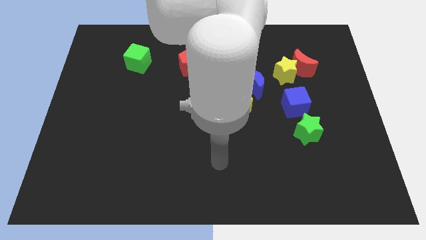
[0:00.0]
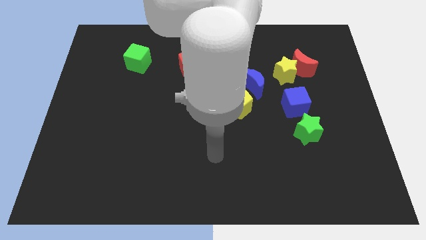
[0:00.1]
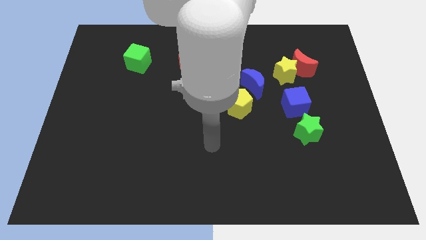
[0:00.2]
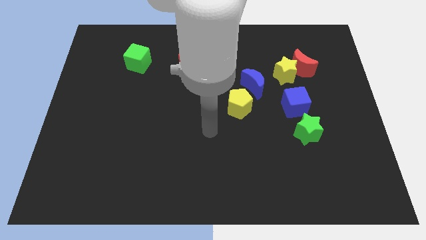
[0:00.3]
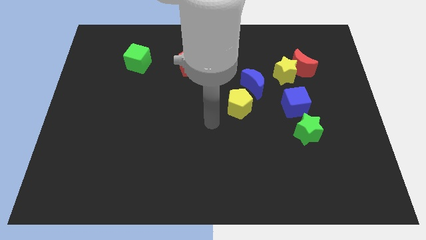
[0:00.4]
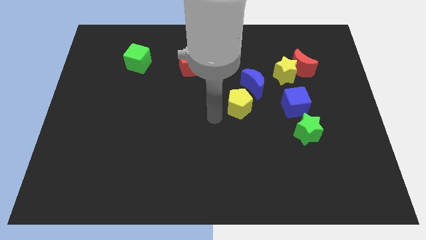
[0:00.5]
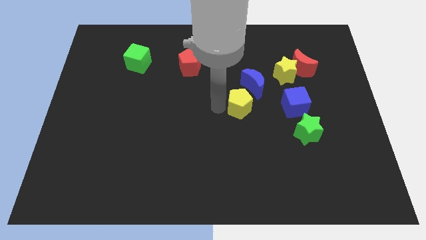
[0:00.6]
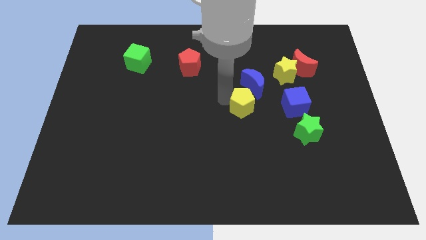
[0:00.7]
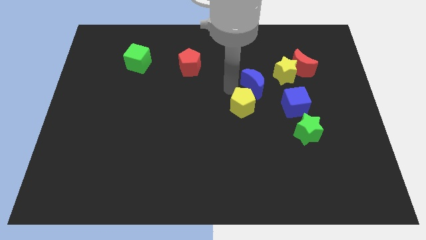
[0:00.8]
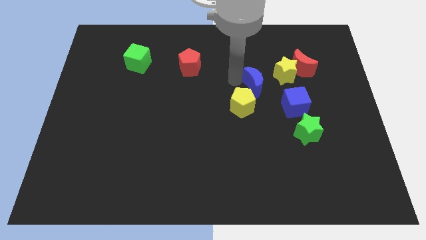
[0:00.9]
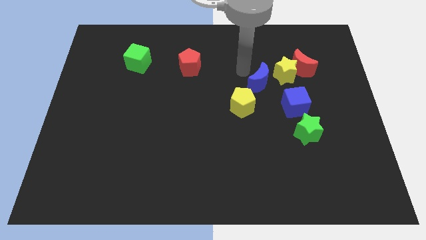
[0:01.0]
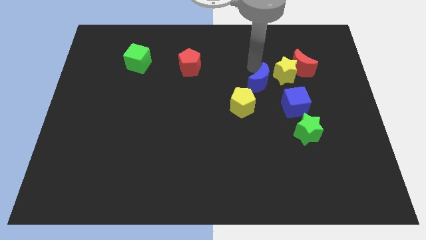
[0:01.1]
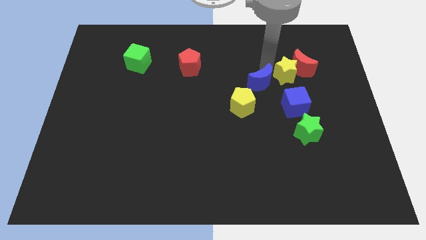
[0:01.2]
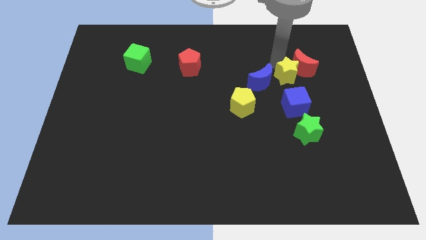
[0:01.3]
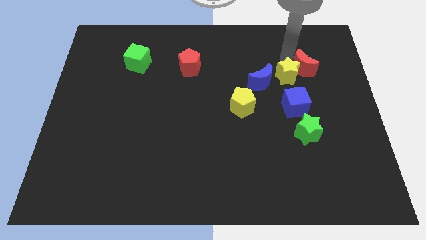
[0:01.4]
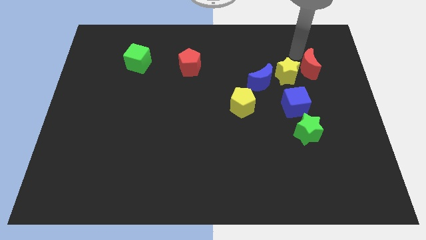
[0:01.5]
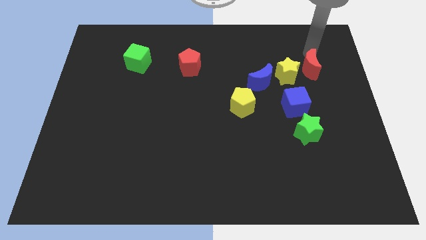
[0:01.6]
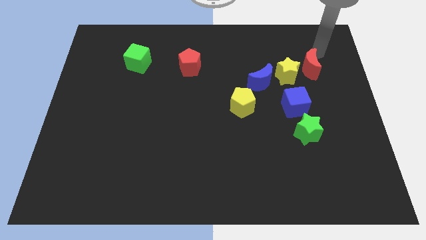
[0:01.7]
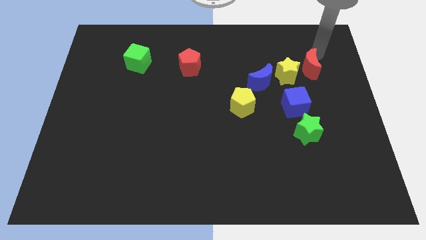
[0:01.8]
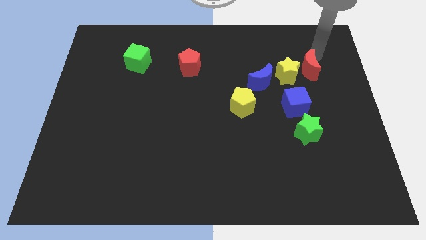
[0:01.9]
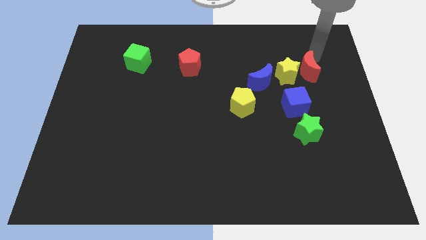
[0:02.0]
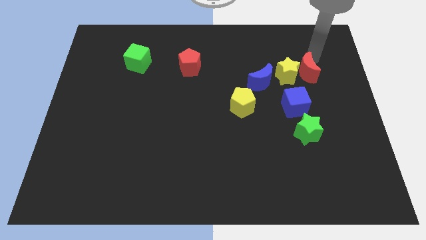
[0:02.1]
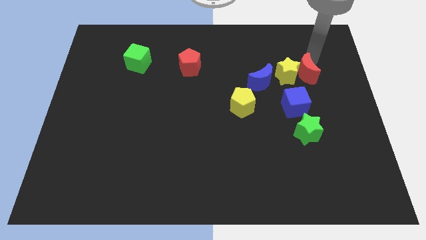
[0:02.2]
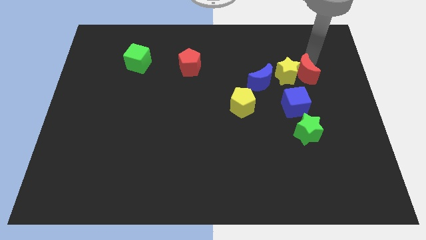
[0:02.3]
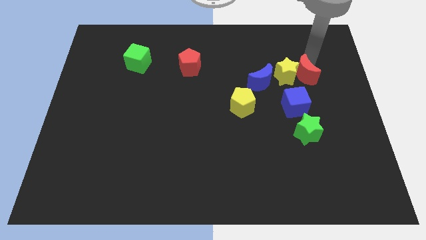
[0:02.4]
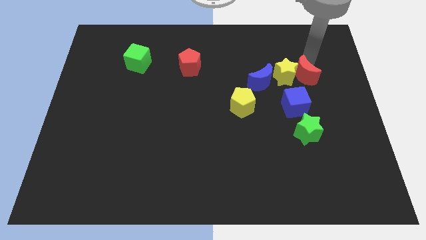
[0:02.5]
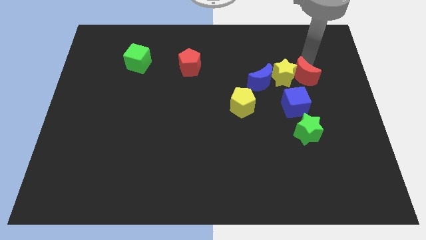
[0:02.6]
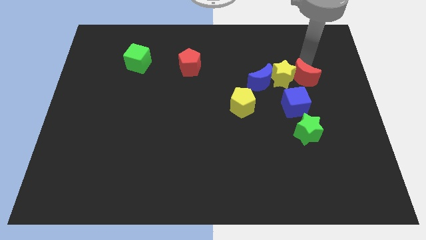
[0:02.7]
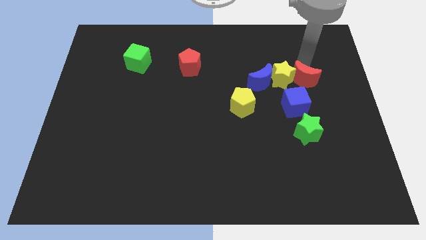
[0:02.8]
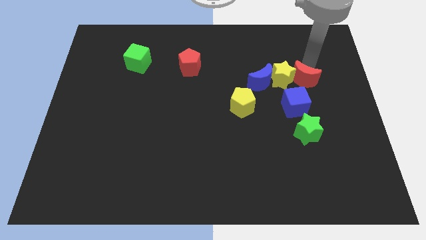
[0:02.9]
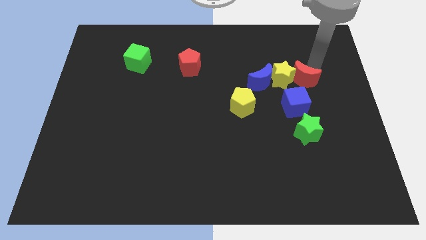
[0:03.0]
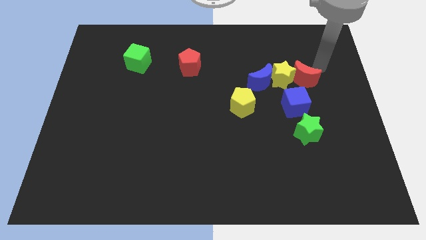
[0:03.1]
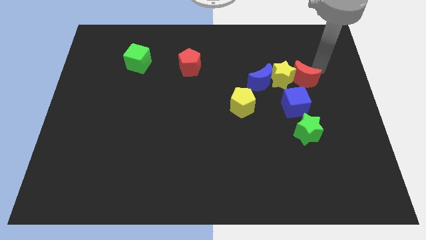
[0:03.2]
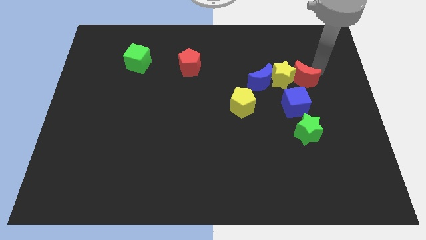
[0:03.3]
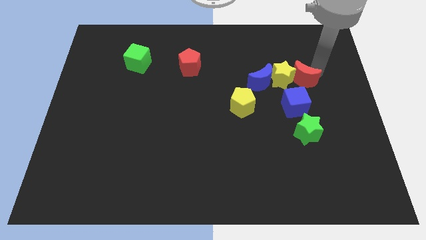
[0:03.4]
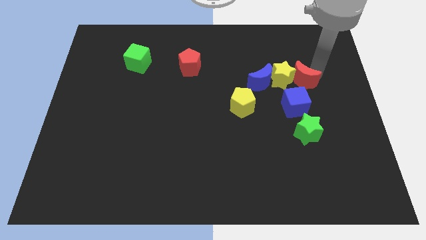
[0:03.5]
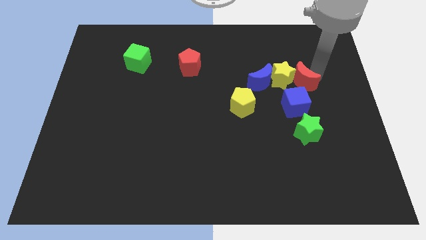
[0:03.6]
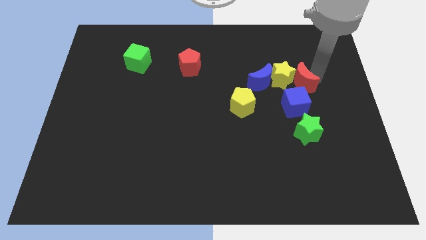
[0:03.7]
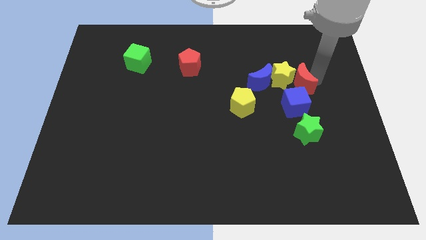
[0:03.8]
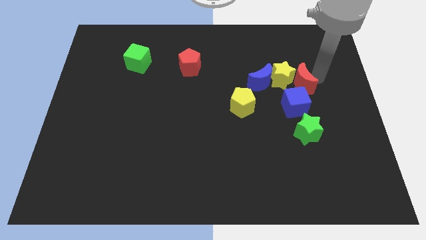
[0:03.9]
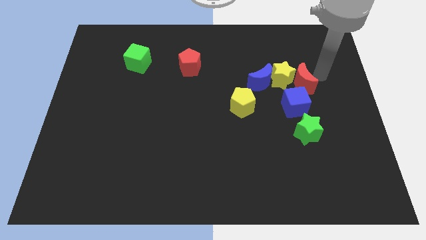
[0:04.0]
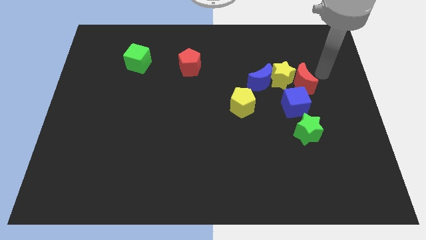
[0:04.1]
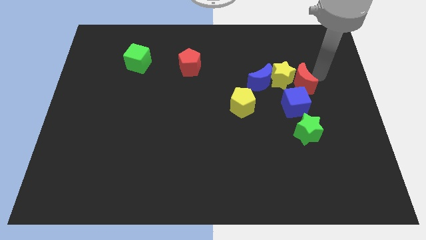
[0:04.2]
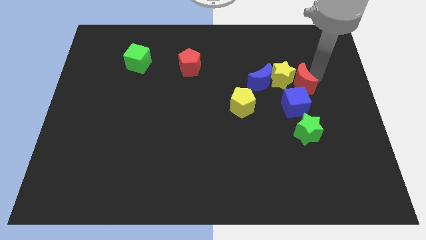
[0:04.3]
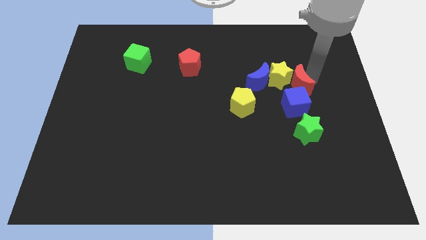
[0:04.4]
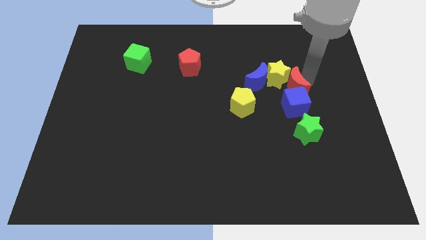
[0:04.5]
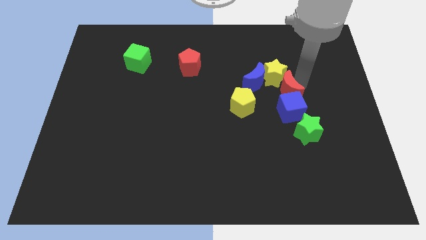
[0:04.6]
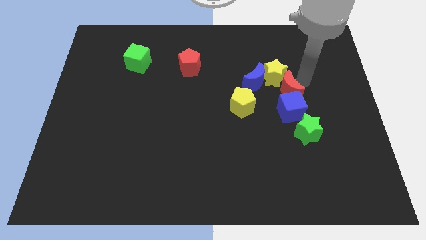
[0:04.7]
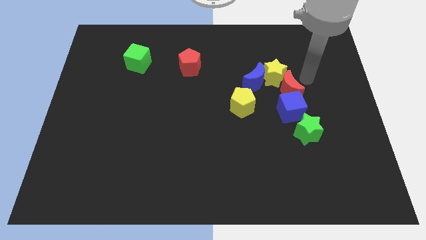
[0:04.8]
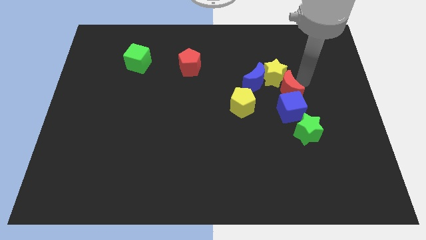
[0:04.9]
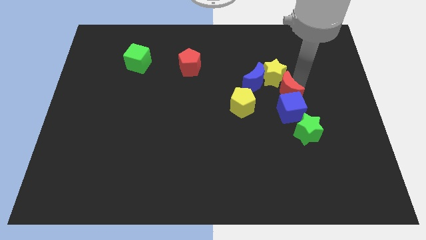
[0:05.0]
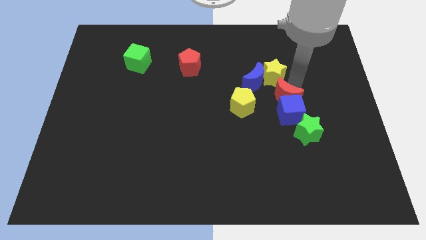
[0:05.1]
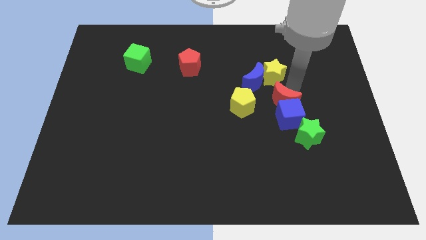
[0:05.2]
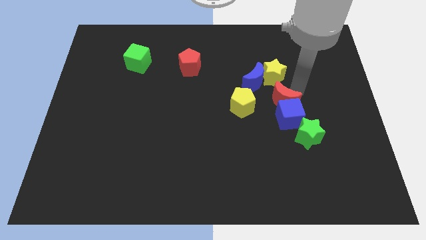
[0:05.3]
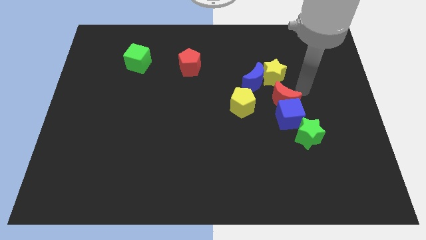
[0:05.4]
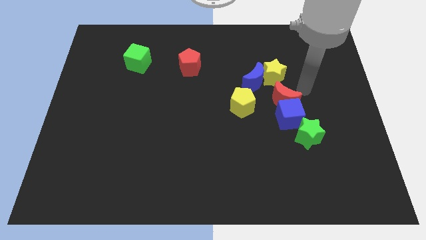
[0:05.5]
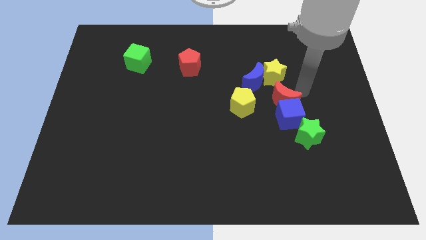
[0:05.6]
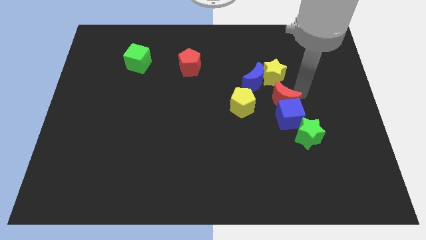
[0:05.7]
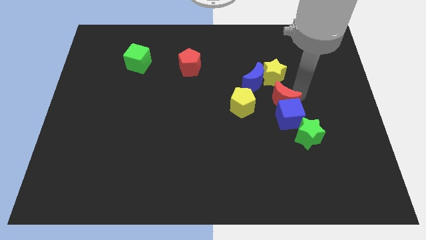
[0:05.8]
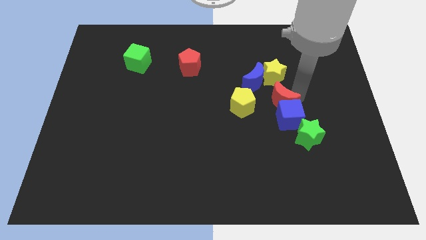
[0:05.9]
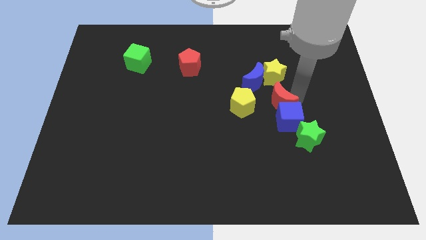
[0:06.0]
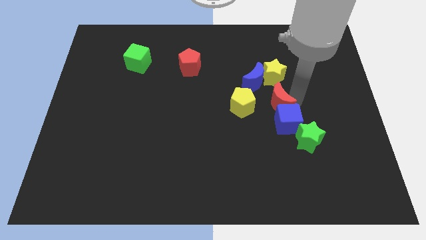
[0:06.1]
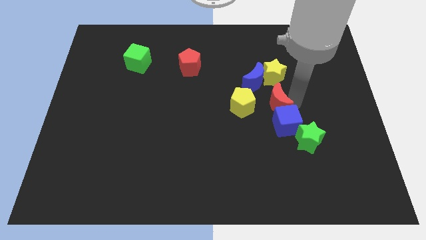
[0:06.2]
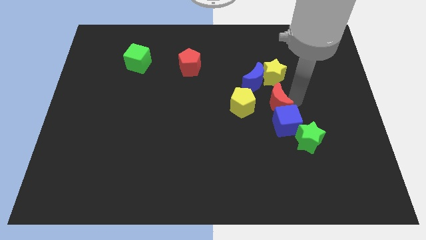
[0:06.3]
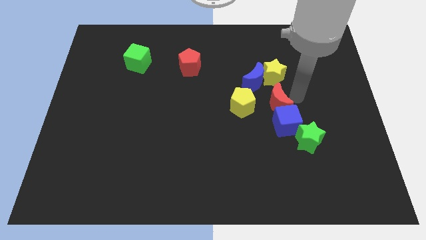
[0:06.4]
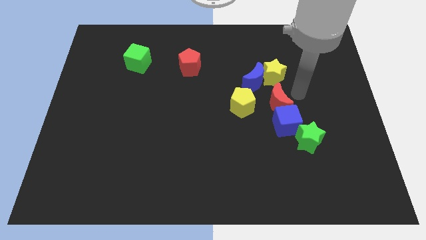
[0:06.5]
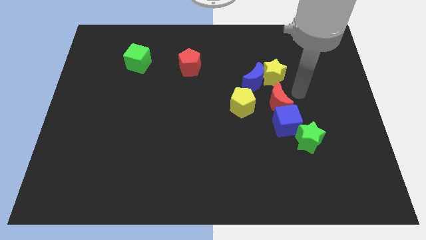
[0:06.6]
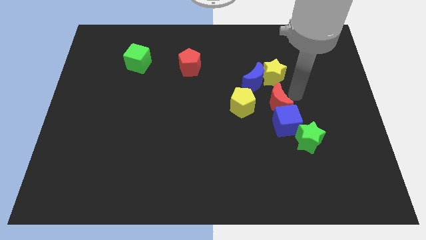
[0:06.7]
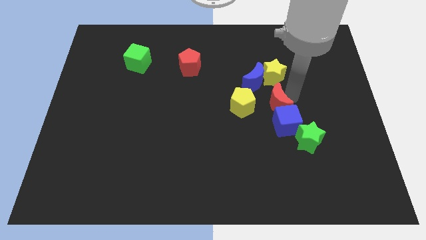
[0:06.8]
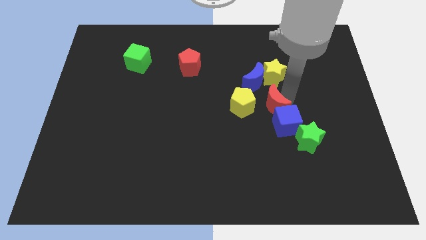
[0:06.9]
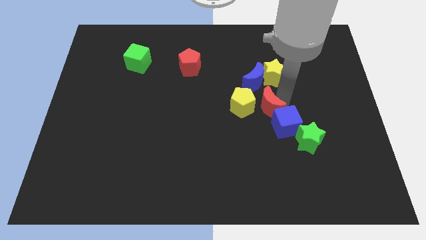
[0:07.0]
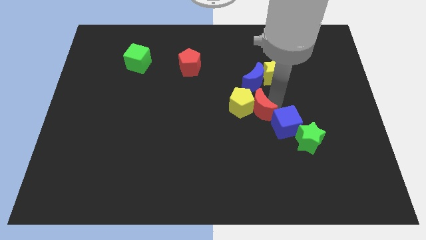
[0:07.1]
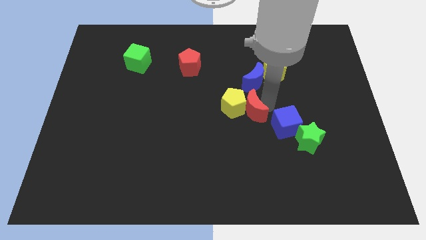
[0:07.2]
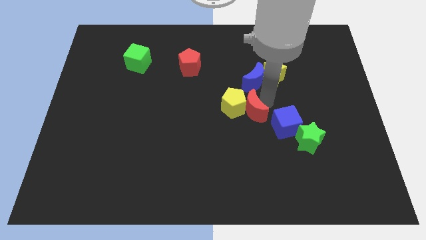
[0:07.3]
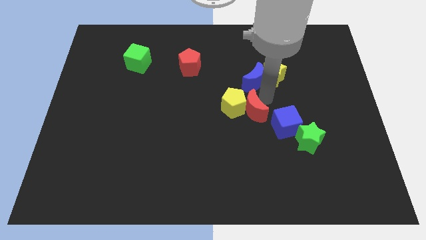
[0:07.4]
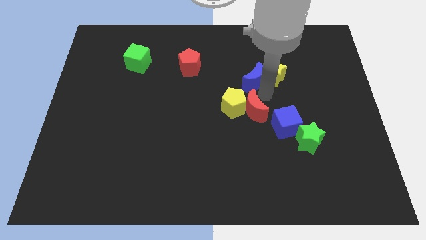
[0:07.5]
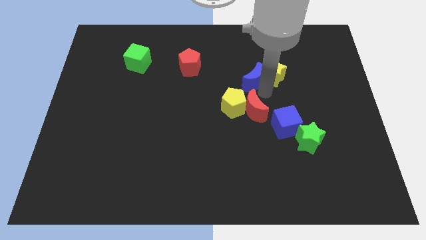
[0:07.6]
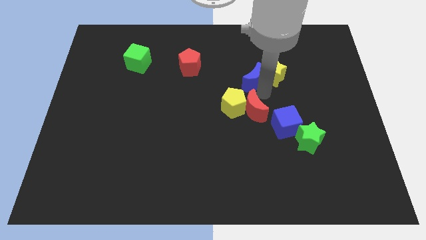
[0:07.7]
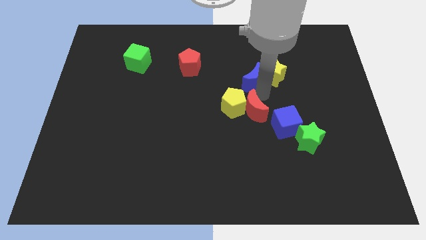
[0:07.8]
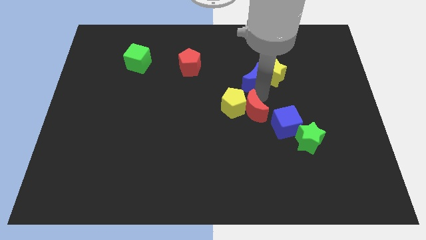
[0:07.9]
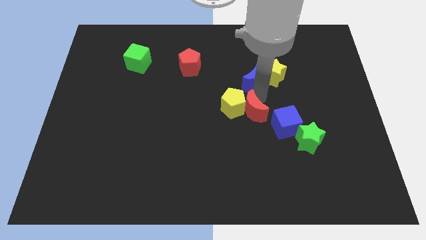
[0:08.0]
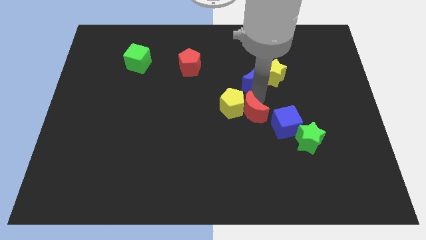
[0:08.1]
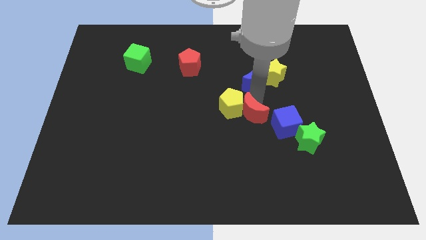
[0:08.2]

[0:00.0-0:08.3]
slide the red moon down and to the left diagonally
